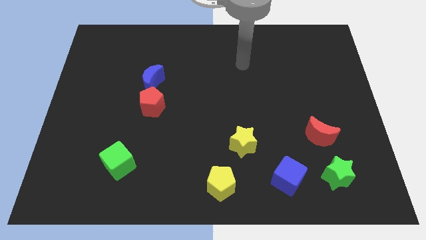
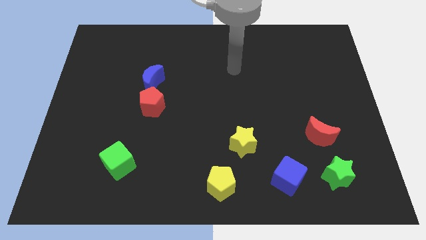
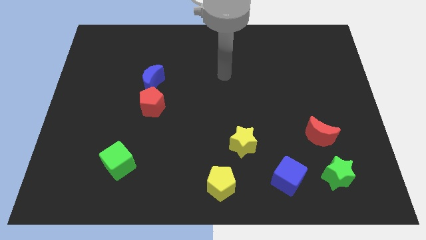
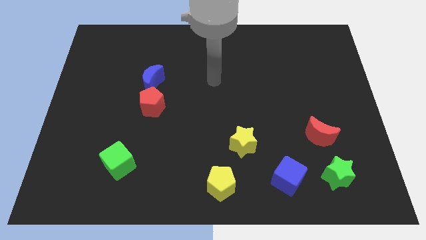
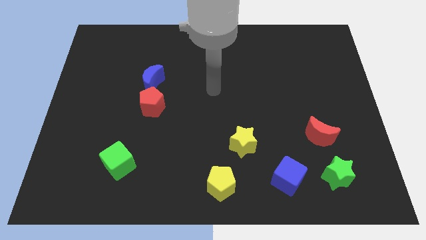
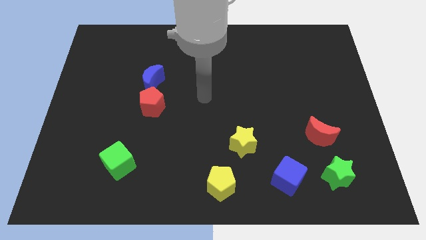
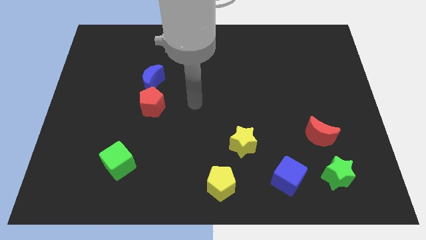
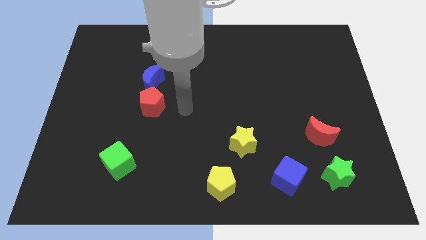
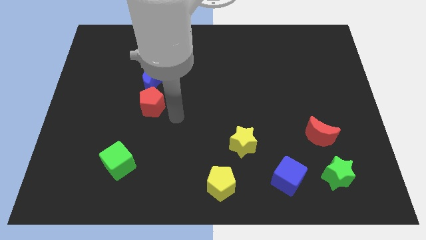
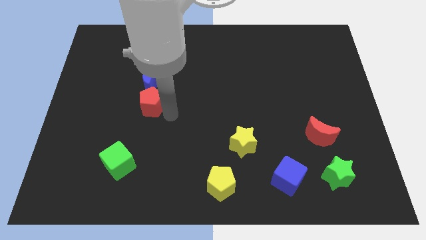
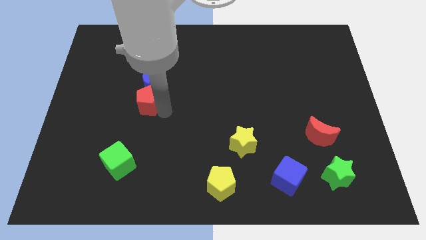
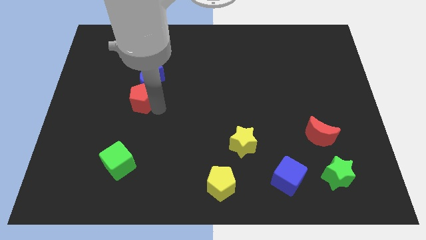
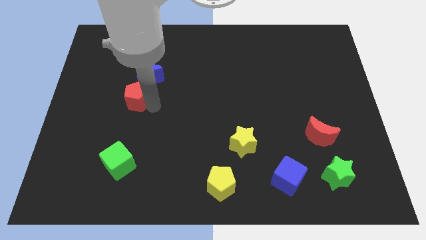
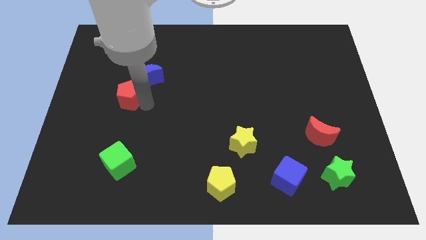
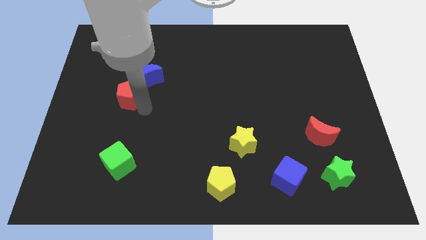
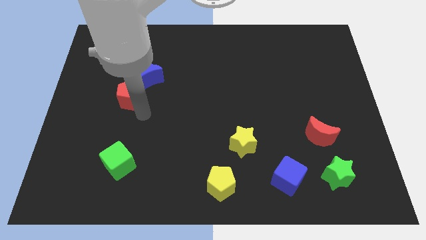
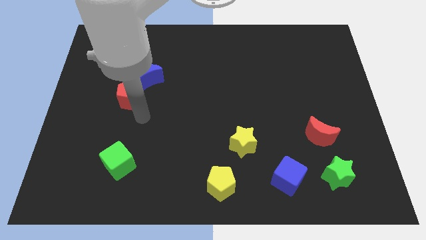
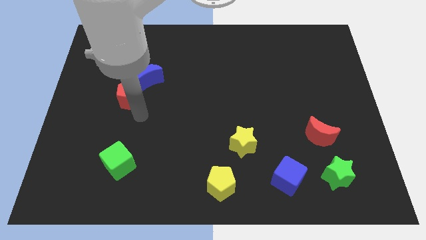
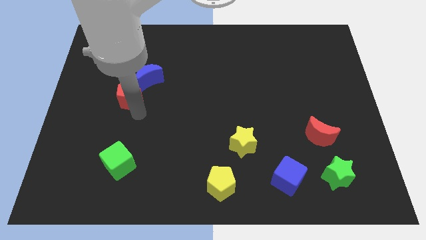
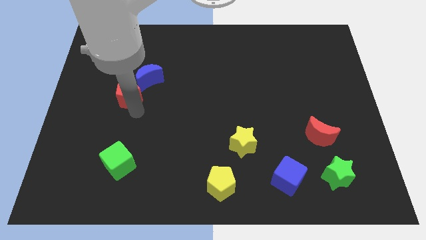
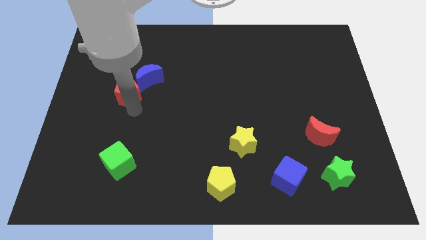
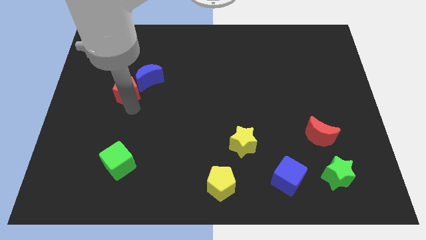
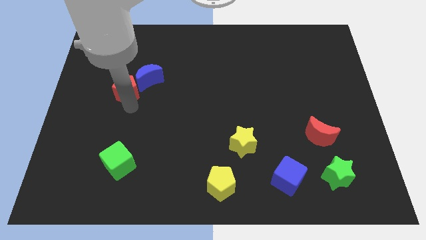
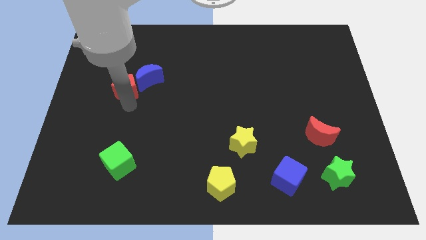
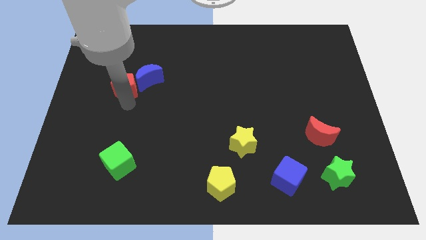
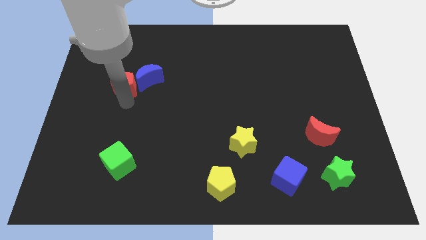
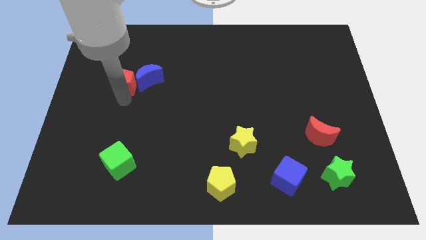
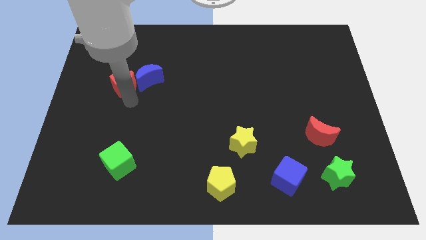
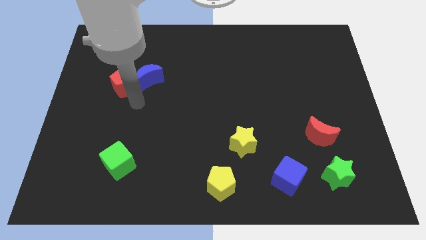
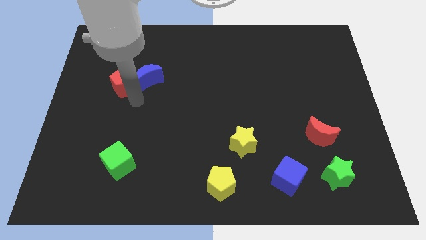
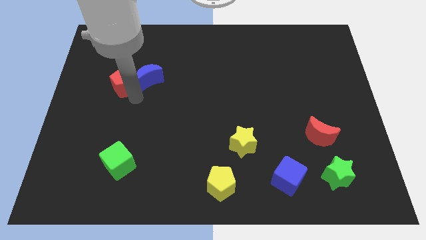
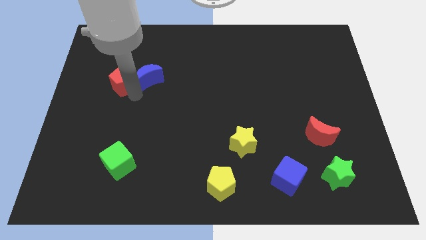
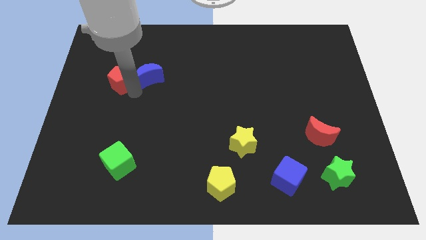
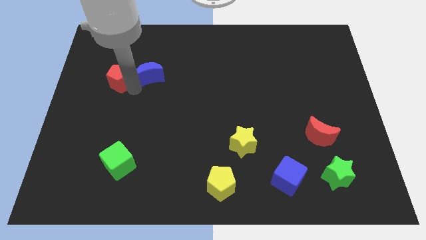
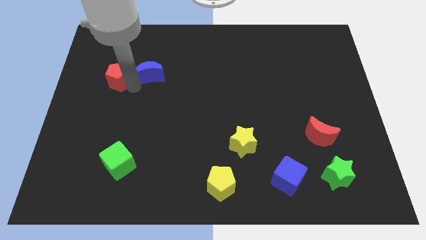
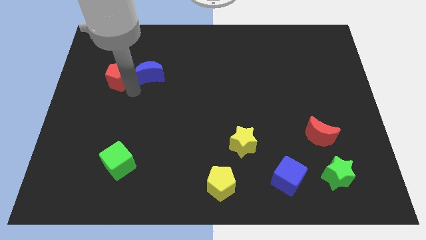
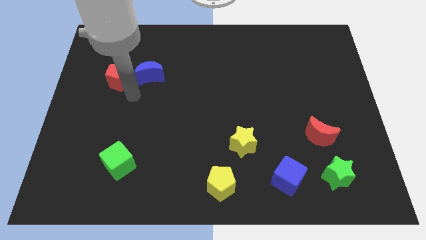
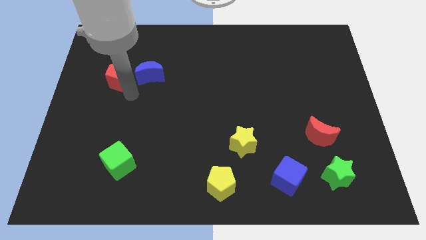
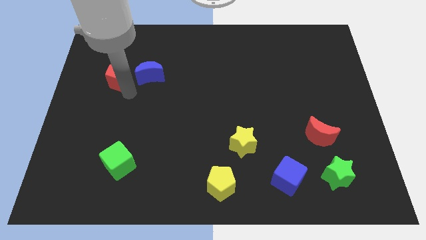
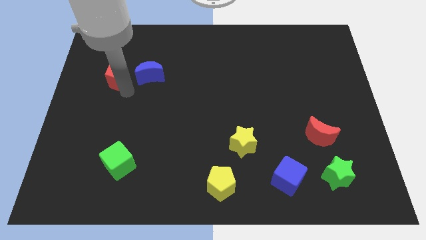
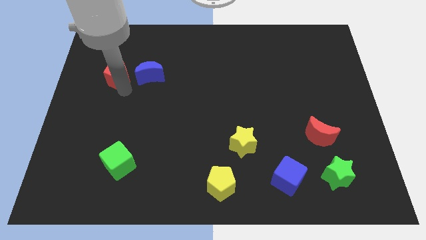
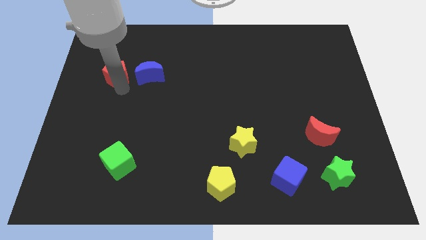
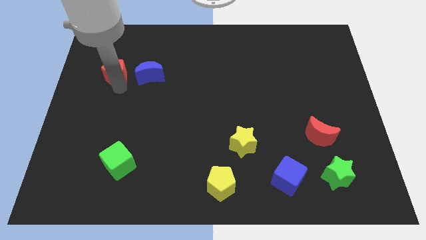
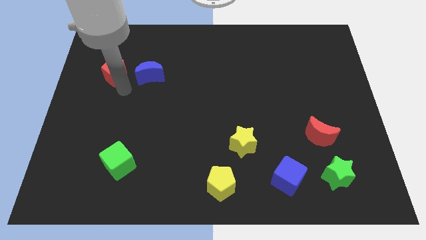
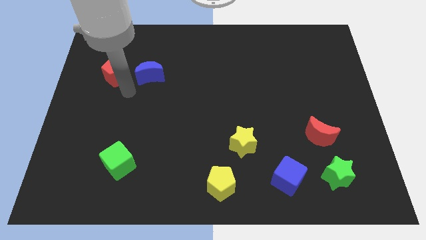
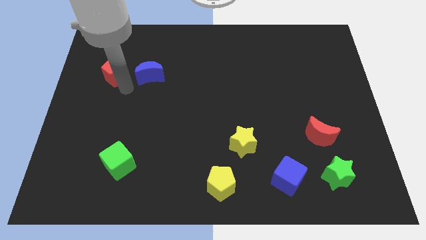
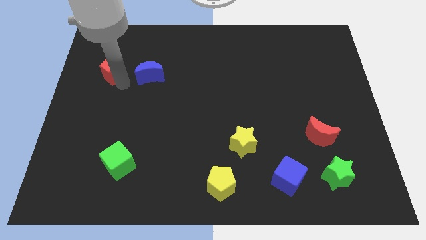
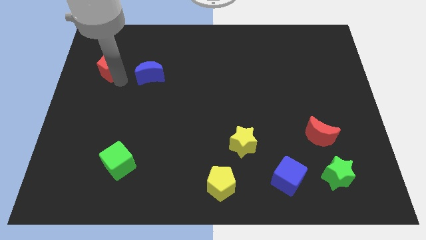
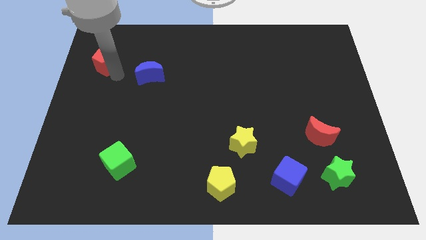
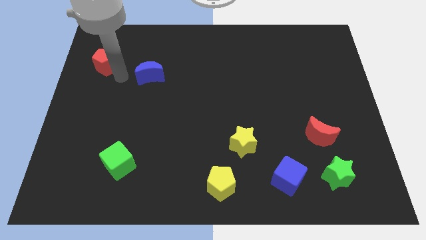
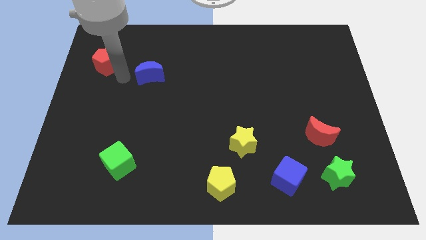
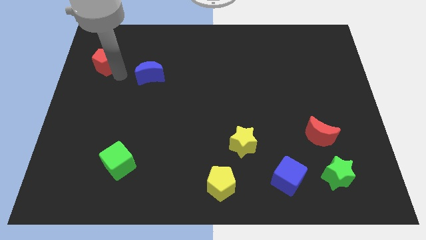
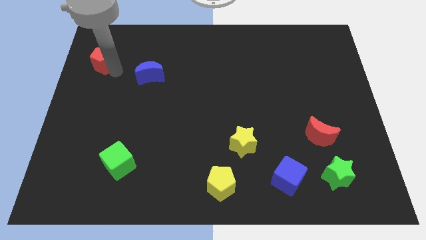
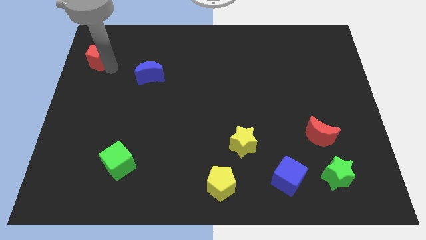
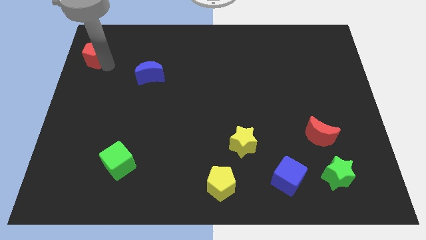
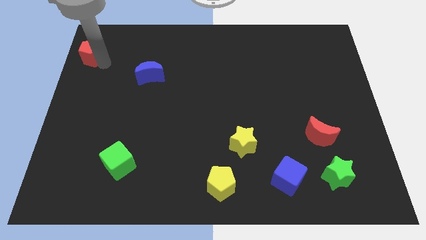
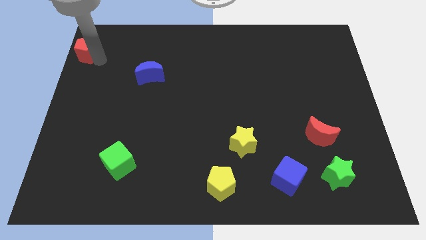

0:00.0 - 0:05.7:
put the red pentagon to the top left of the board

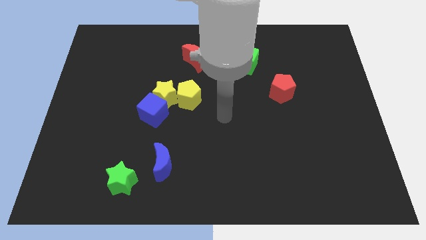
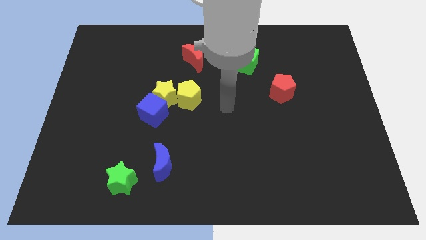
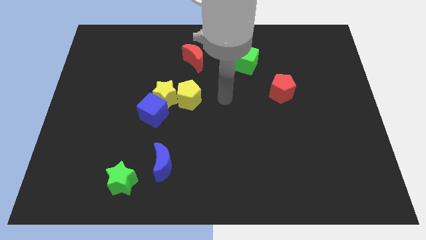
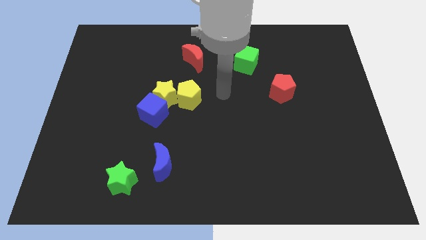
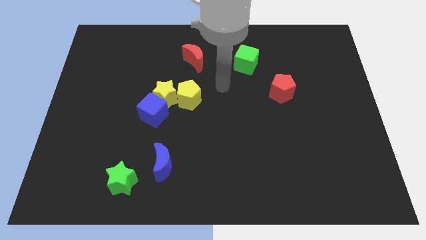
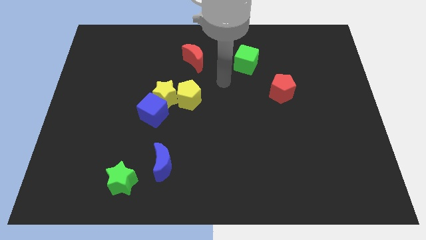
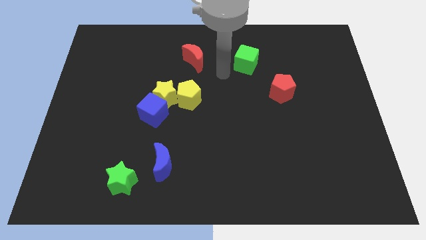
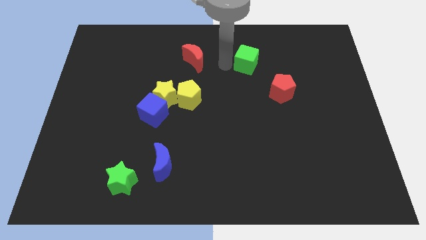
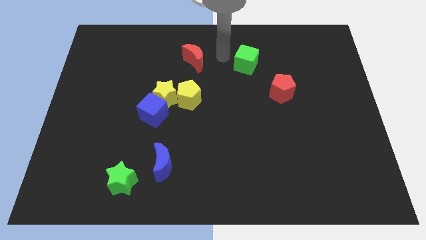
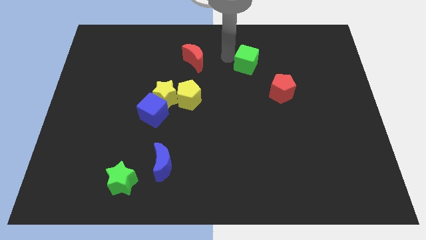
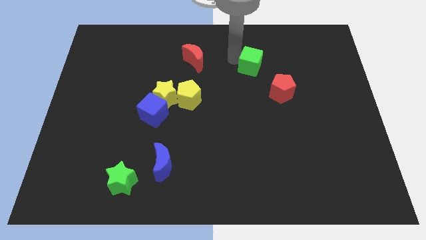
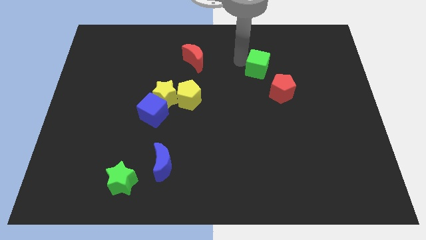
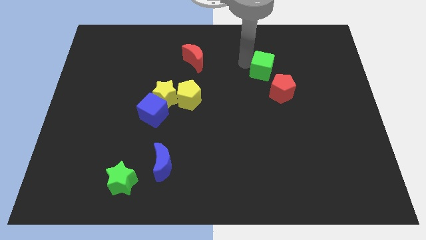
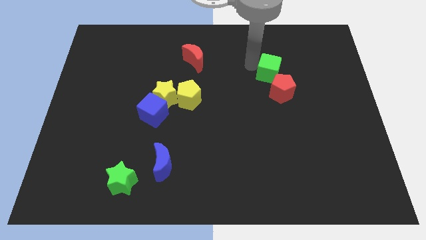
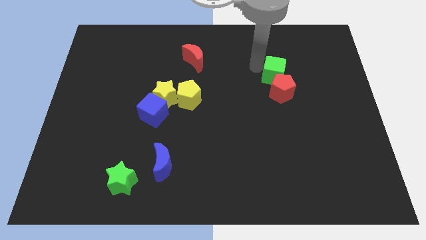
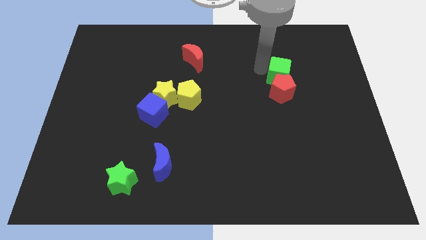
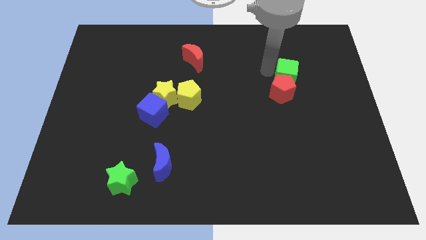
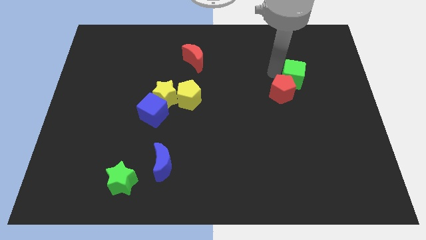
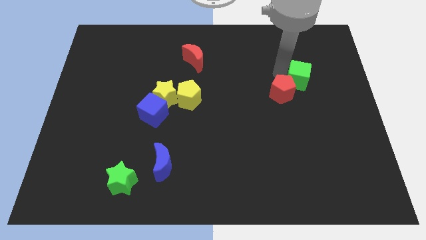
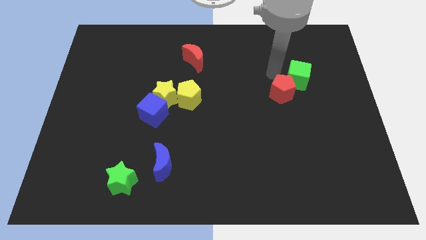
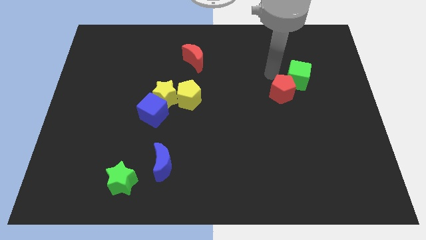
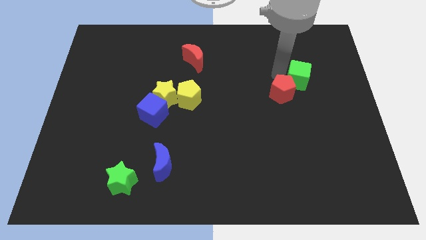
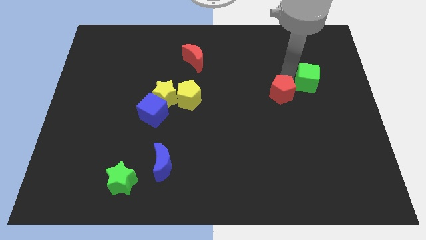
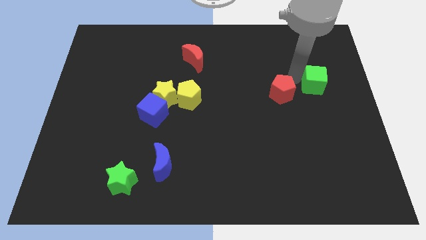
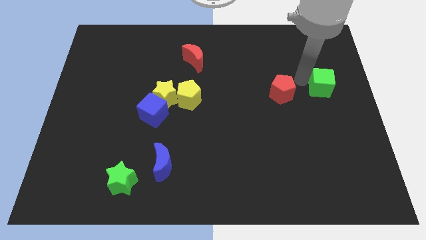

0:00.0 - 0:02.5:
push the green cube to the center right
